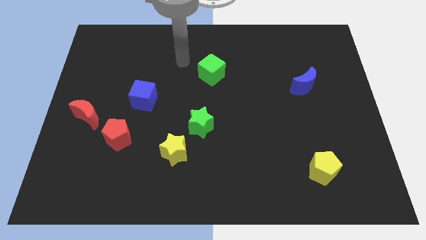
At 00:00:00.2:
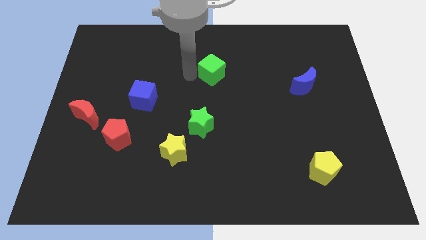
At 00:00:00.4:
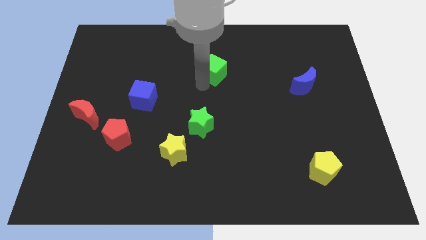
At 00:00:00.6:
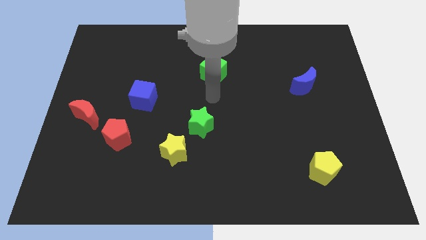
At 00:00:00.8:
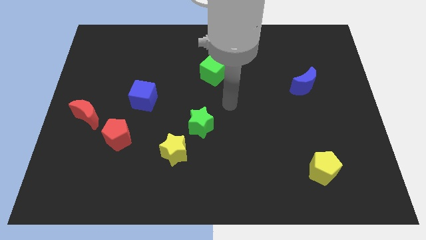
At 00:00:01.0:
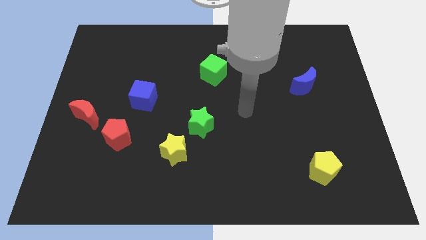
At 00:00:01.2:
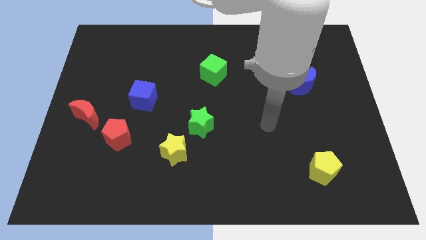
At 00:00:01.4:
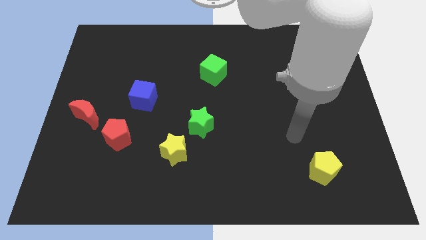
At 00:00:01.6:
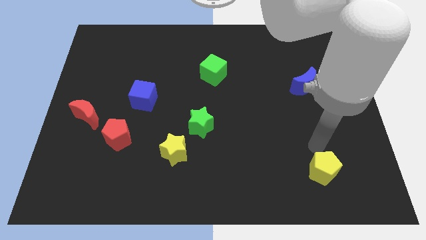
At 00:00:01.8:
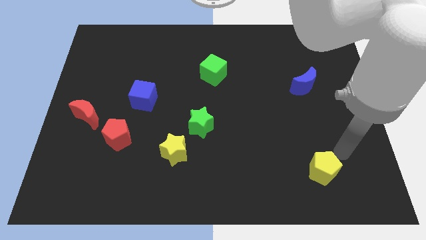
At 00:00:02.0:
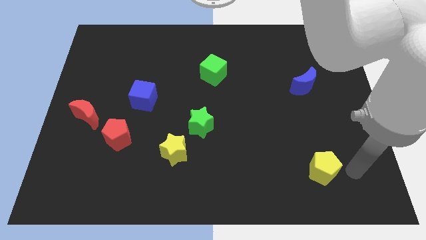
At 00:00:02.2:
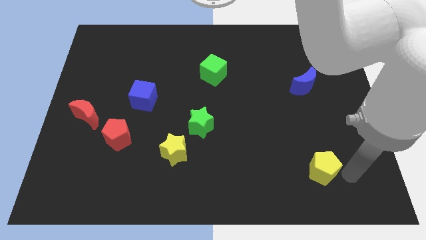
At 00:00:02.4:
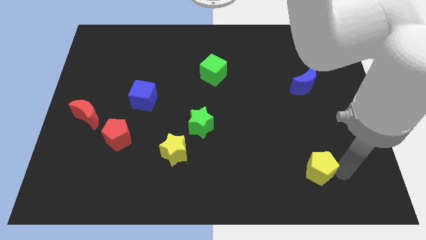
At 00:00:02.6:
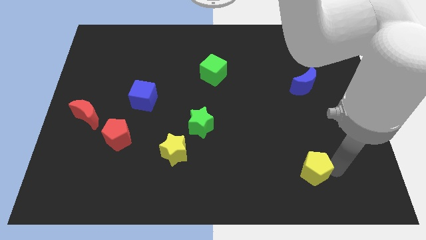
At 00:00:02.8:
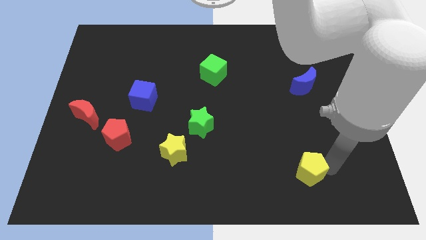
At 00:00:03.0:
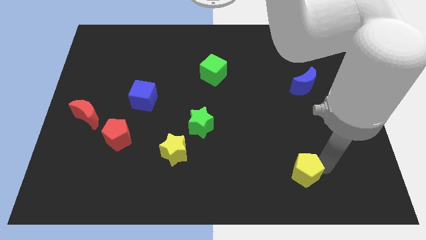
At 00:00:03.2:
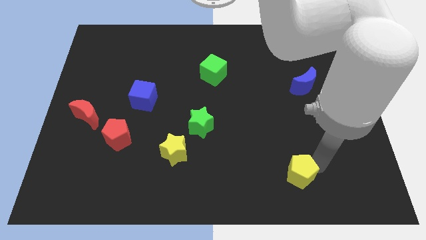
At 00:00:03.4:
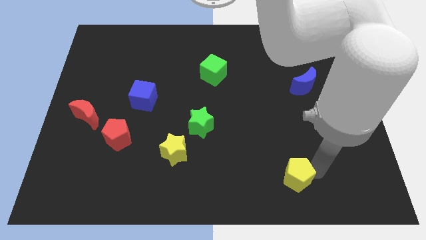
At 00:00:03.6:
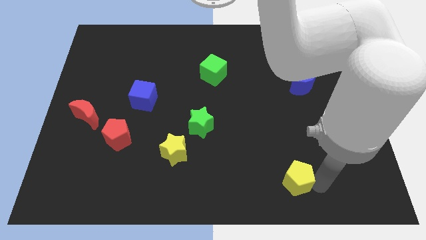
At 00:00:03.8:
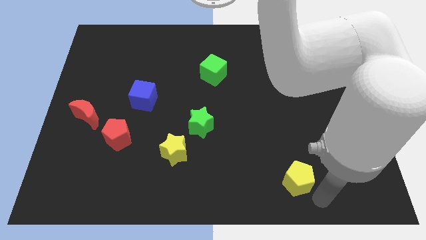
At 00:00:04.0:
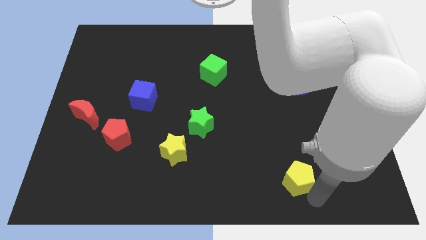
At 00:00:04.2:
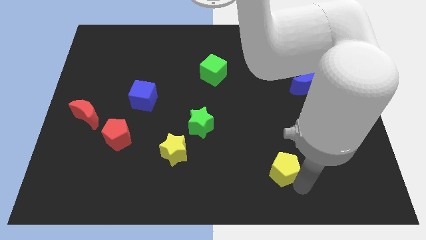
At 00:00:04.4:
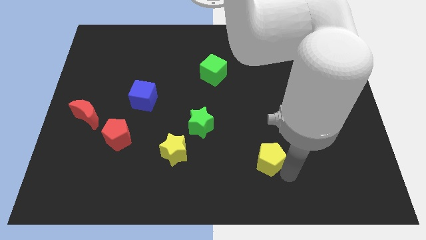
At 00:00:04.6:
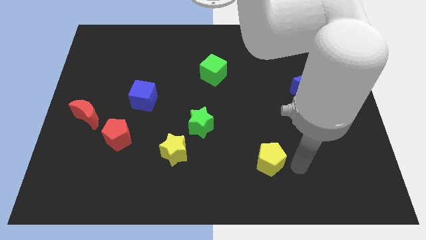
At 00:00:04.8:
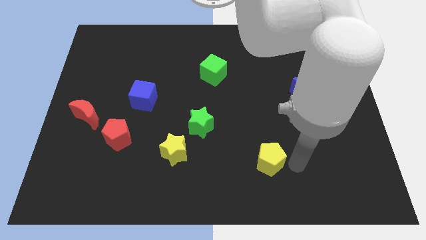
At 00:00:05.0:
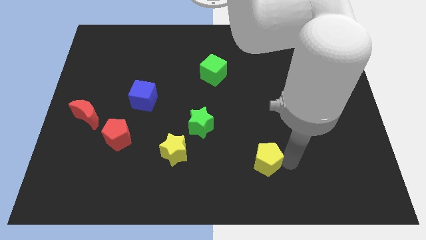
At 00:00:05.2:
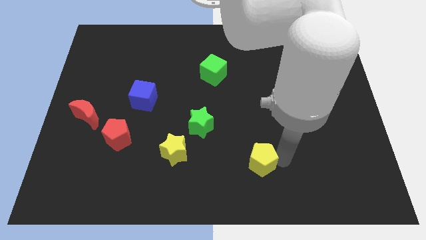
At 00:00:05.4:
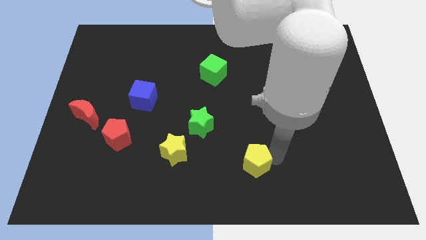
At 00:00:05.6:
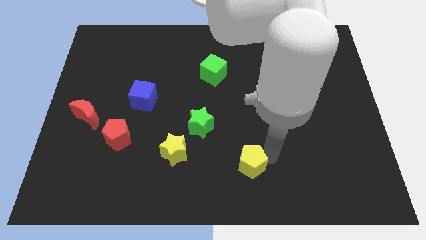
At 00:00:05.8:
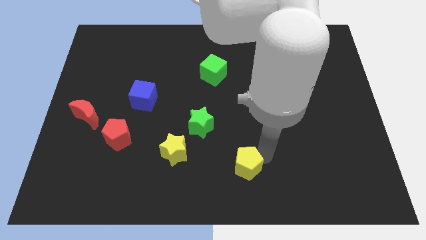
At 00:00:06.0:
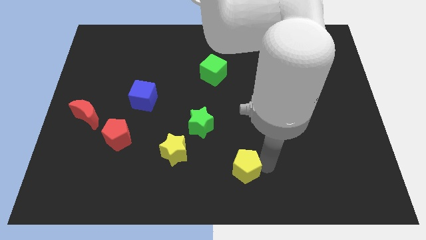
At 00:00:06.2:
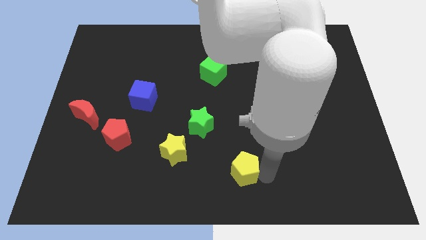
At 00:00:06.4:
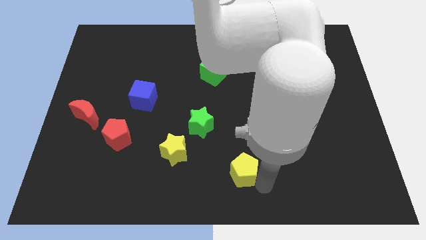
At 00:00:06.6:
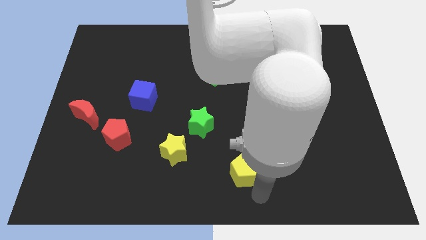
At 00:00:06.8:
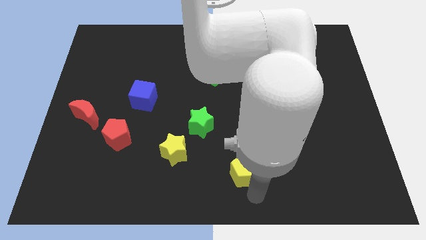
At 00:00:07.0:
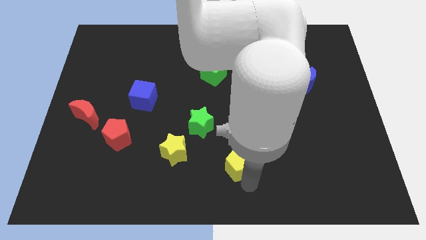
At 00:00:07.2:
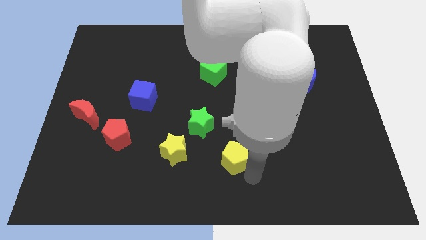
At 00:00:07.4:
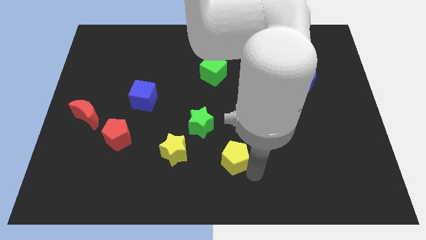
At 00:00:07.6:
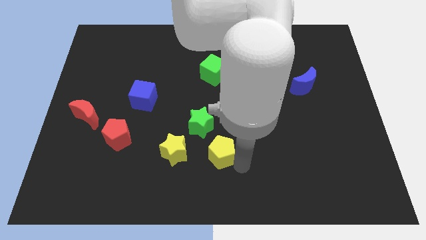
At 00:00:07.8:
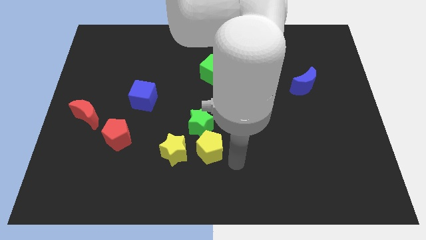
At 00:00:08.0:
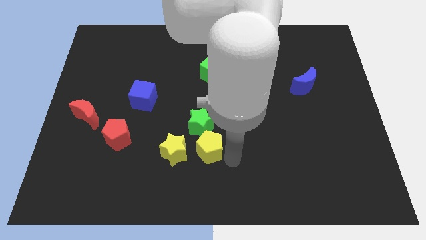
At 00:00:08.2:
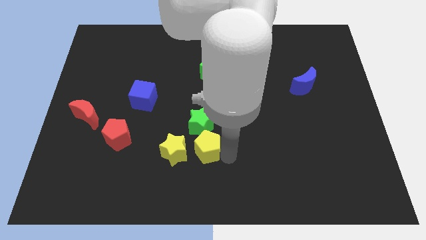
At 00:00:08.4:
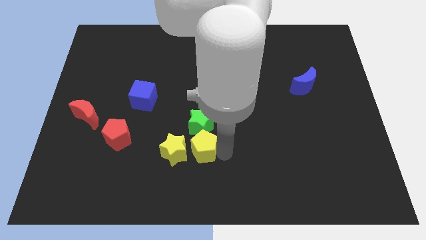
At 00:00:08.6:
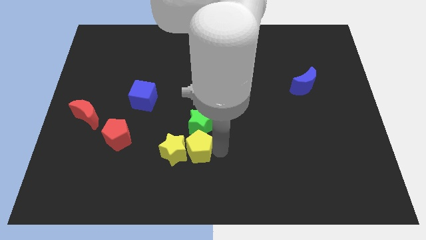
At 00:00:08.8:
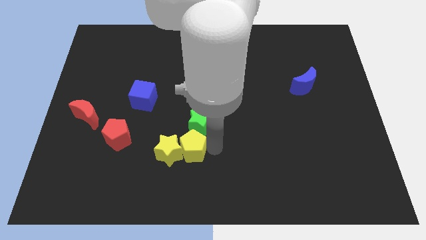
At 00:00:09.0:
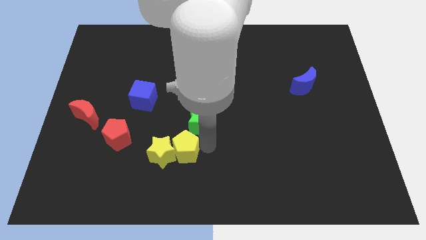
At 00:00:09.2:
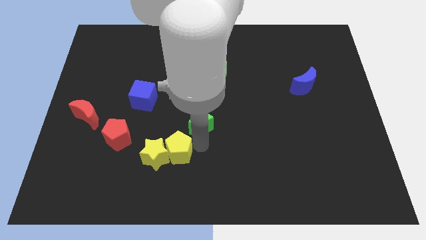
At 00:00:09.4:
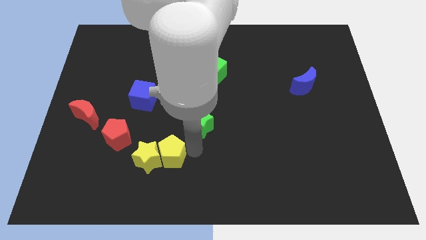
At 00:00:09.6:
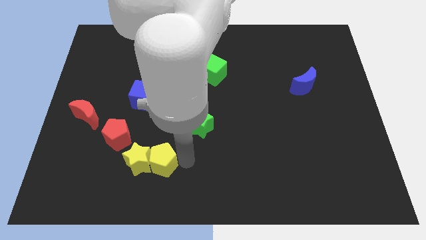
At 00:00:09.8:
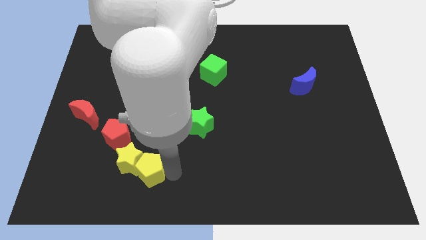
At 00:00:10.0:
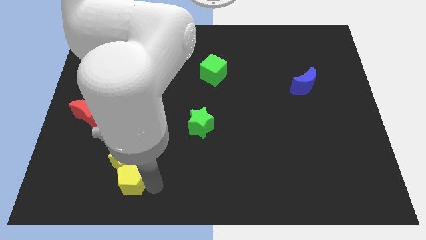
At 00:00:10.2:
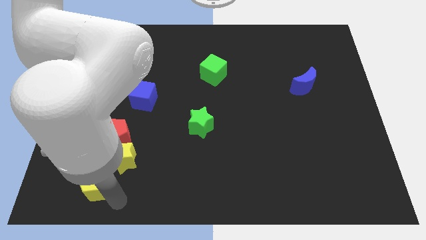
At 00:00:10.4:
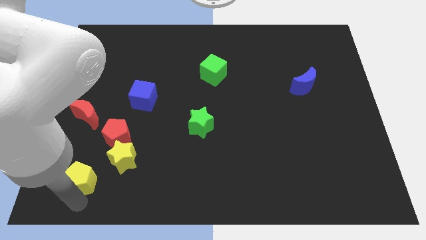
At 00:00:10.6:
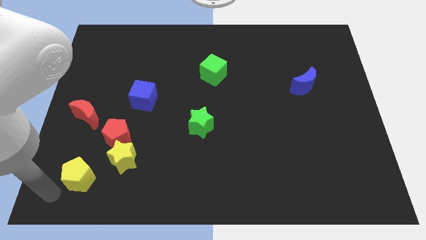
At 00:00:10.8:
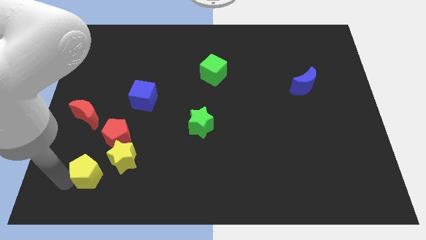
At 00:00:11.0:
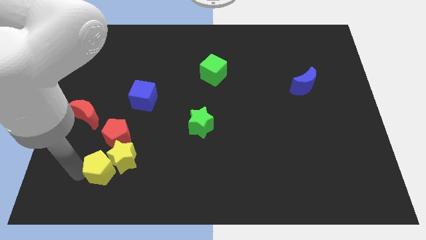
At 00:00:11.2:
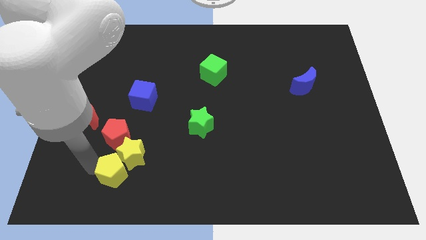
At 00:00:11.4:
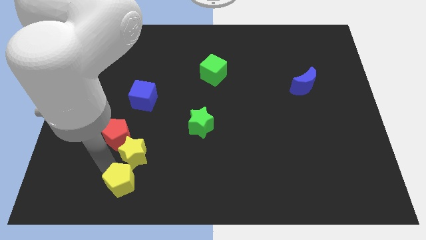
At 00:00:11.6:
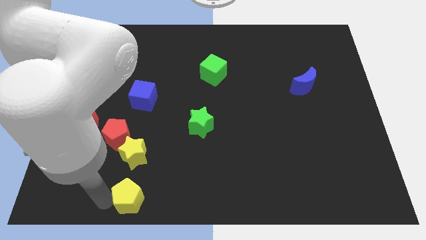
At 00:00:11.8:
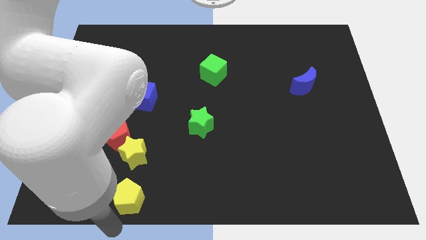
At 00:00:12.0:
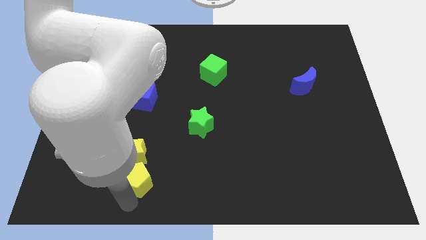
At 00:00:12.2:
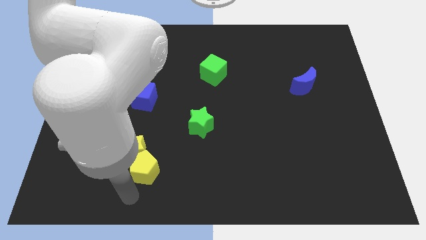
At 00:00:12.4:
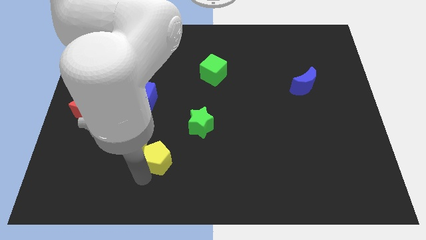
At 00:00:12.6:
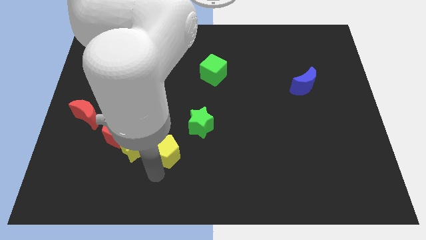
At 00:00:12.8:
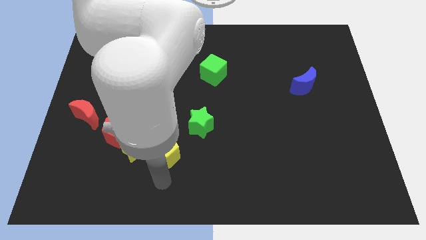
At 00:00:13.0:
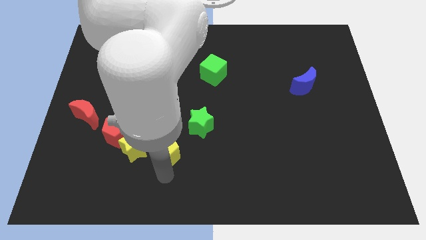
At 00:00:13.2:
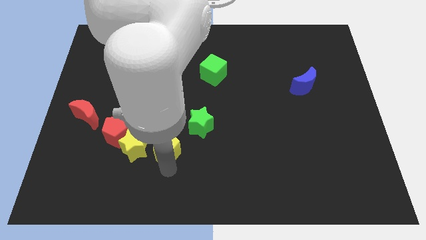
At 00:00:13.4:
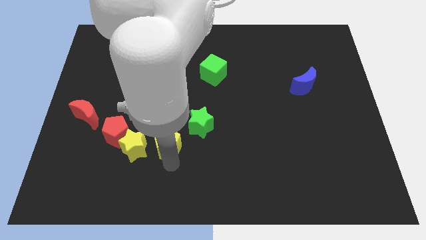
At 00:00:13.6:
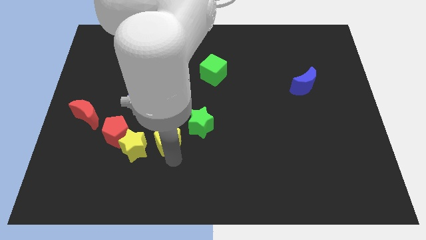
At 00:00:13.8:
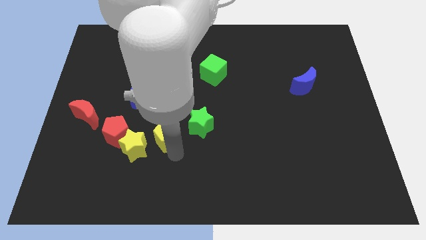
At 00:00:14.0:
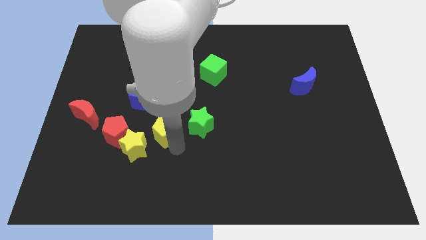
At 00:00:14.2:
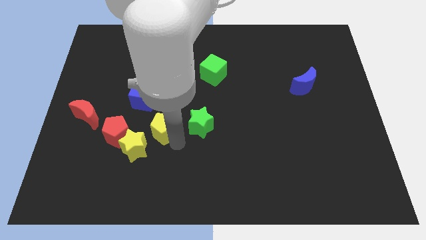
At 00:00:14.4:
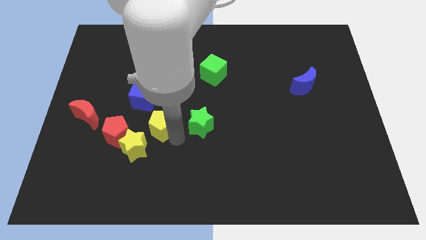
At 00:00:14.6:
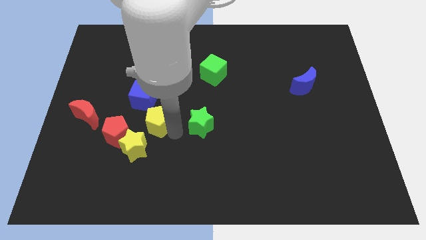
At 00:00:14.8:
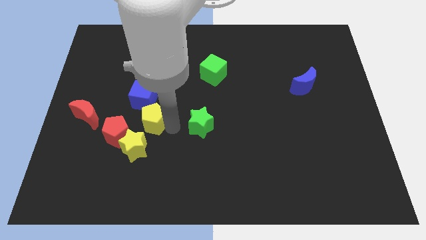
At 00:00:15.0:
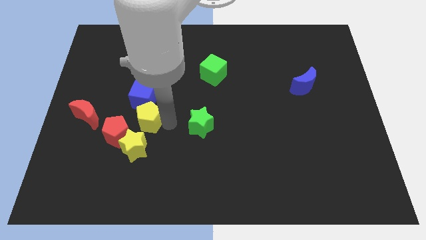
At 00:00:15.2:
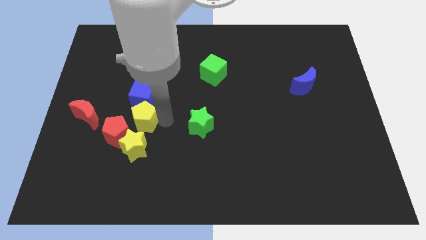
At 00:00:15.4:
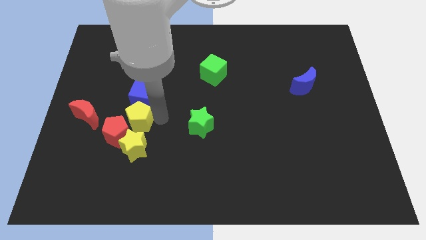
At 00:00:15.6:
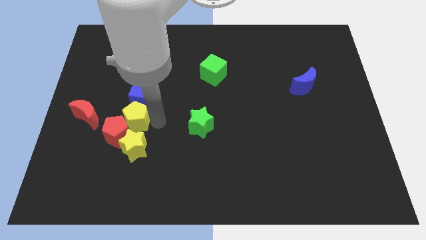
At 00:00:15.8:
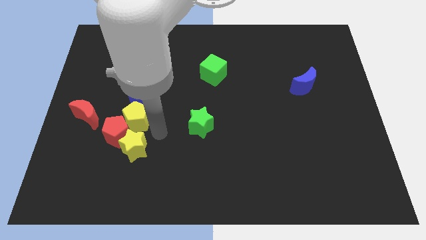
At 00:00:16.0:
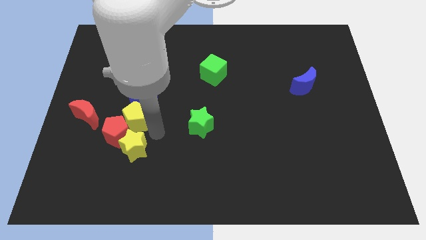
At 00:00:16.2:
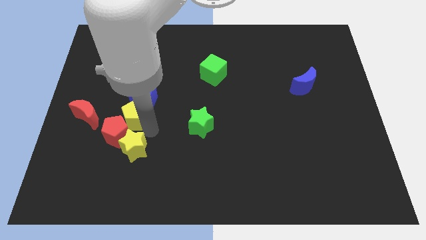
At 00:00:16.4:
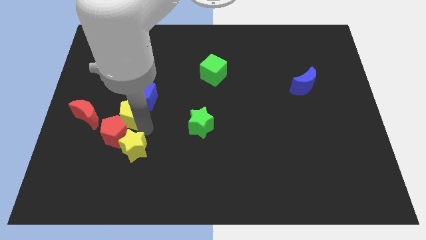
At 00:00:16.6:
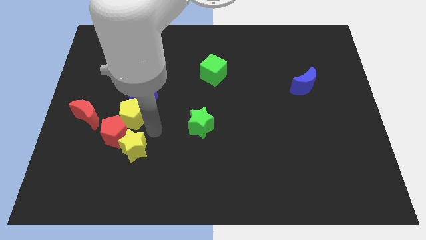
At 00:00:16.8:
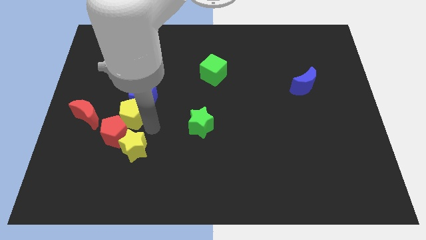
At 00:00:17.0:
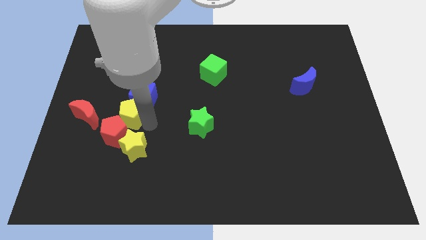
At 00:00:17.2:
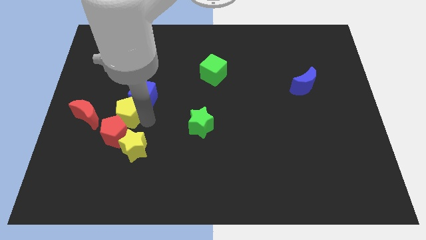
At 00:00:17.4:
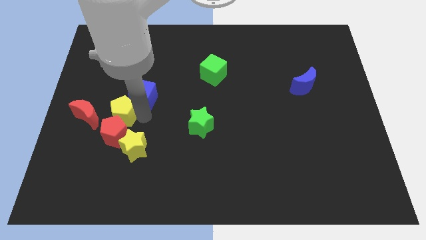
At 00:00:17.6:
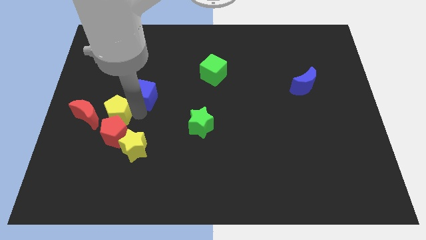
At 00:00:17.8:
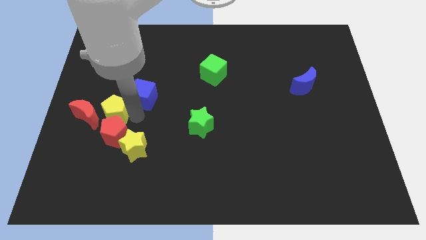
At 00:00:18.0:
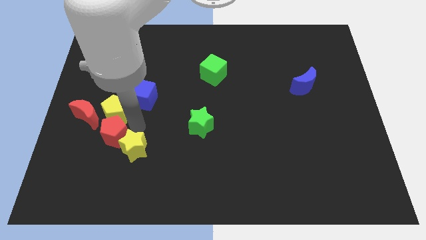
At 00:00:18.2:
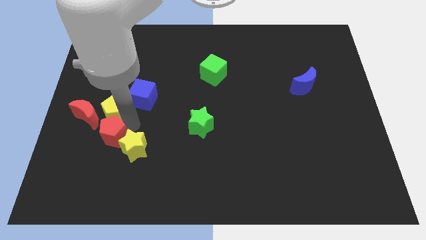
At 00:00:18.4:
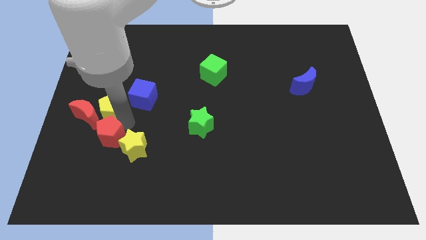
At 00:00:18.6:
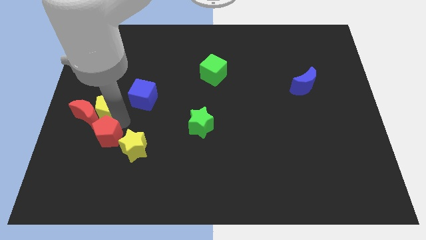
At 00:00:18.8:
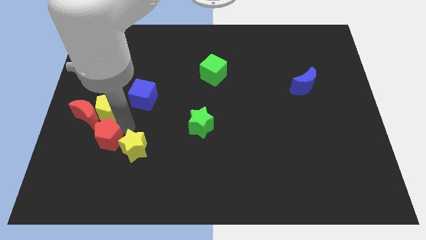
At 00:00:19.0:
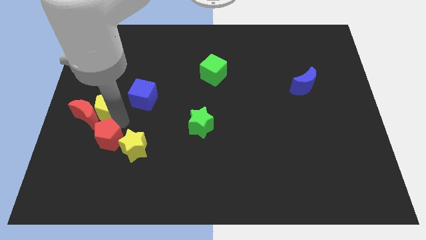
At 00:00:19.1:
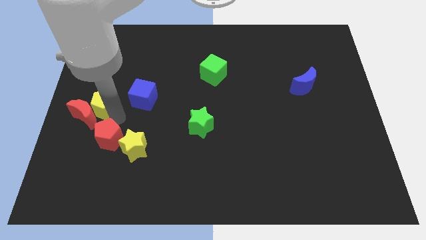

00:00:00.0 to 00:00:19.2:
put the yellow pentagon to the left side of the board
